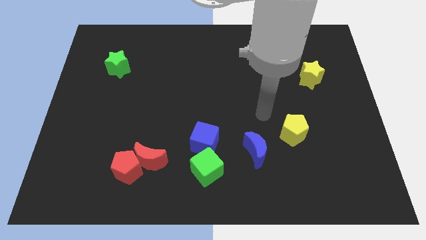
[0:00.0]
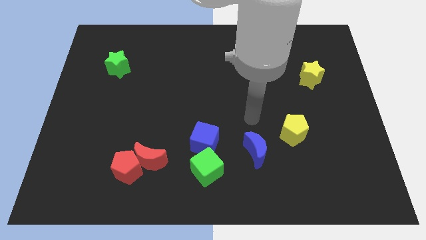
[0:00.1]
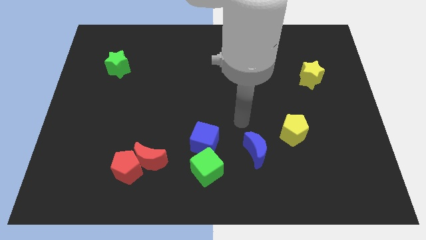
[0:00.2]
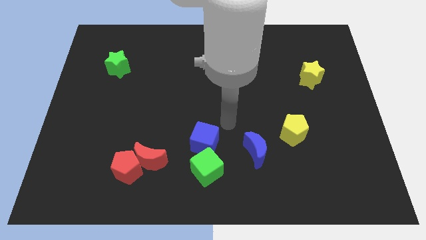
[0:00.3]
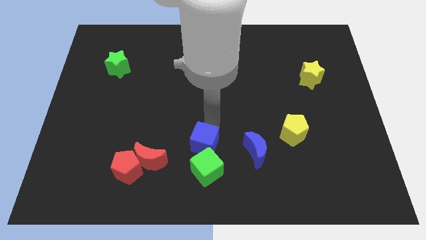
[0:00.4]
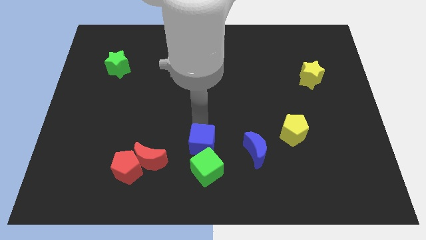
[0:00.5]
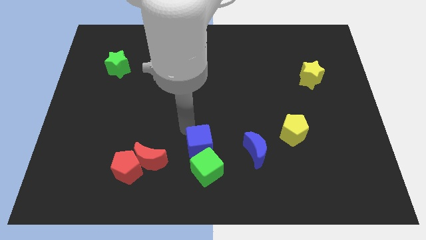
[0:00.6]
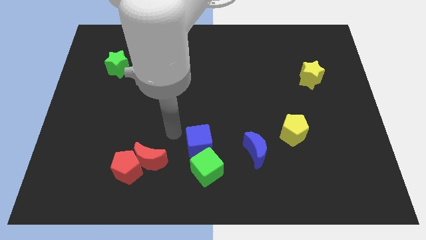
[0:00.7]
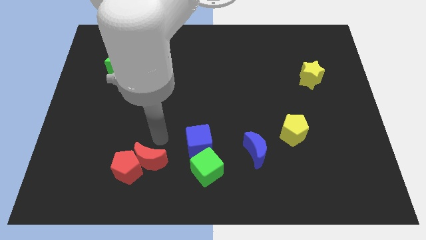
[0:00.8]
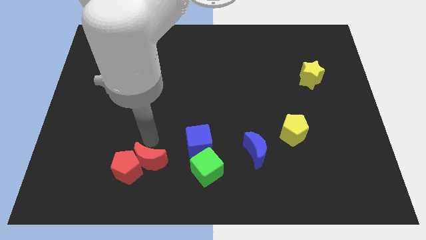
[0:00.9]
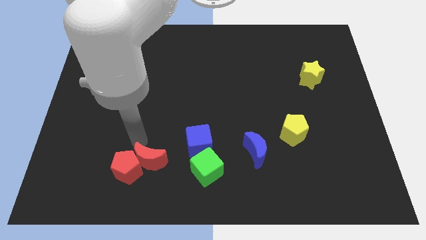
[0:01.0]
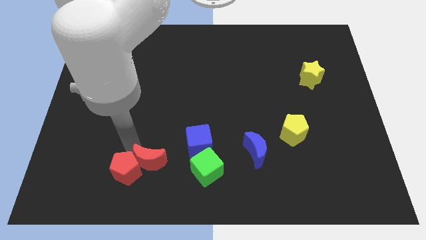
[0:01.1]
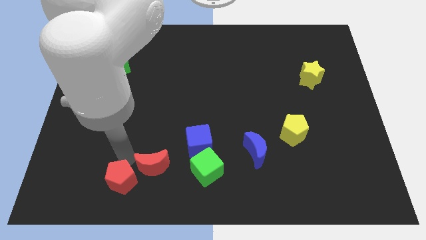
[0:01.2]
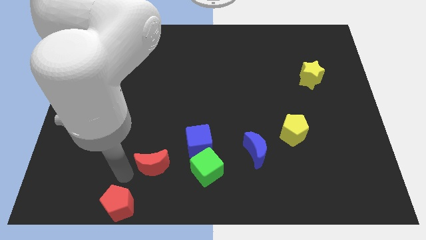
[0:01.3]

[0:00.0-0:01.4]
separate the red moon from the red pentagon

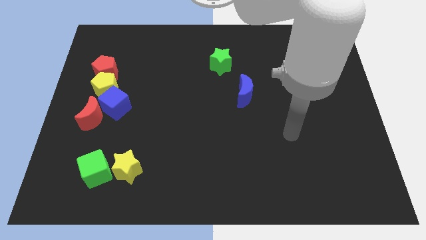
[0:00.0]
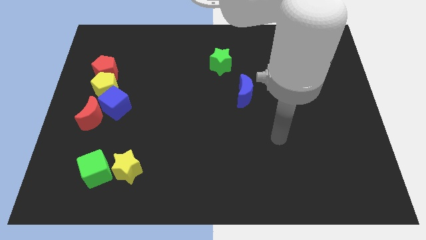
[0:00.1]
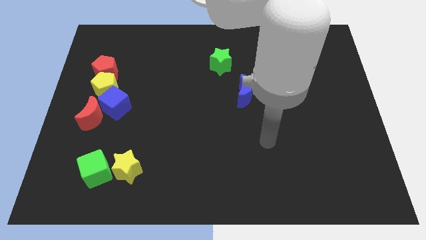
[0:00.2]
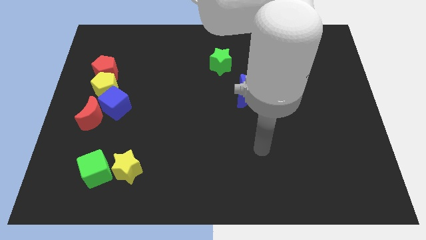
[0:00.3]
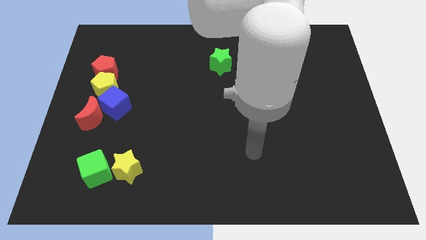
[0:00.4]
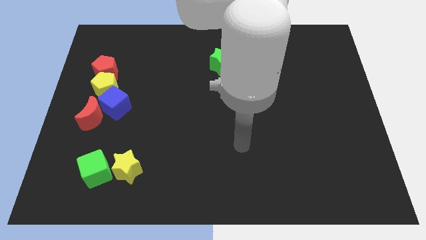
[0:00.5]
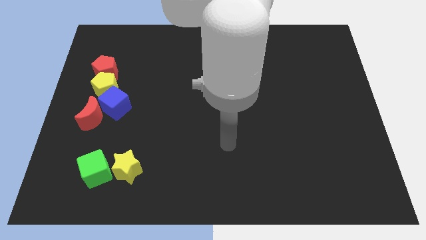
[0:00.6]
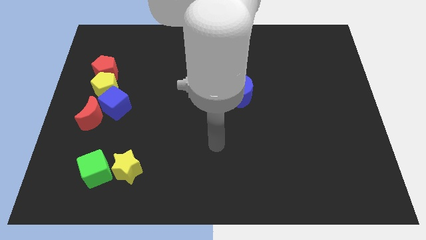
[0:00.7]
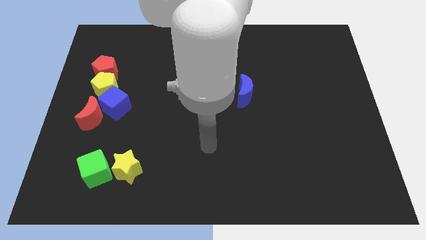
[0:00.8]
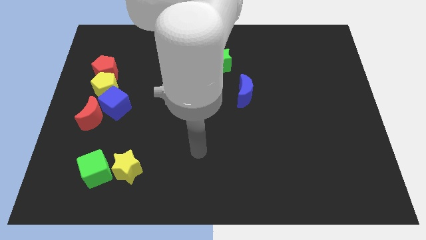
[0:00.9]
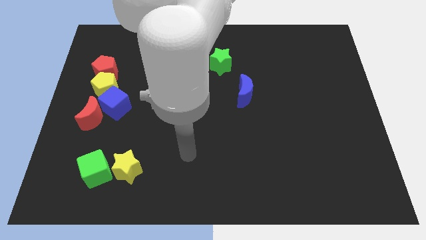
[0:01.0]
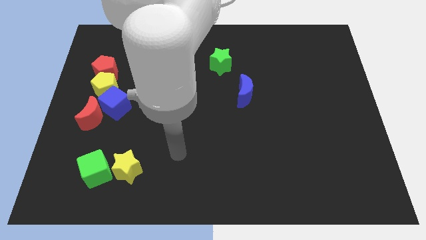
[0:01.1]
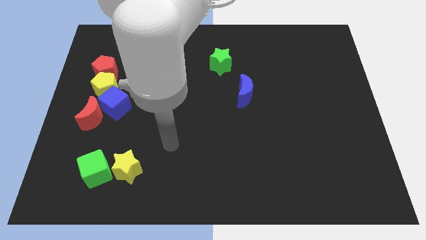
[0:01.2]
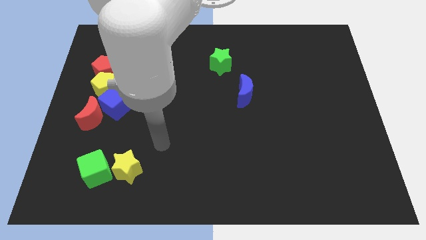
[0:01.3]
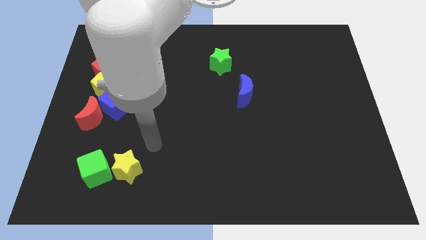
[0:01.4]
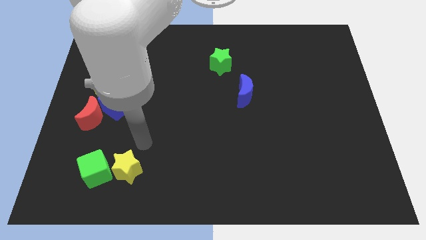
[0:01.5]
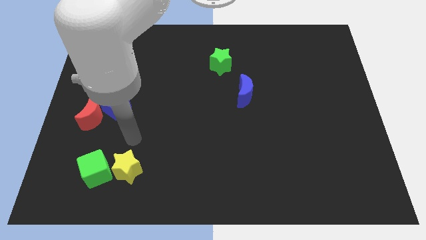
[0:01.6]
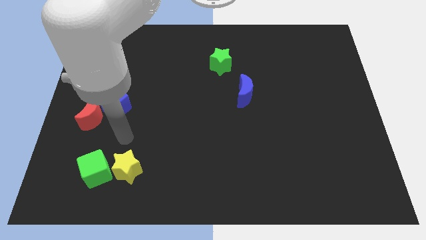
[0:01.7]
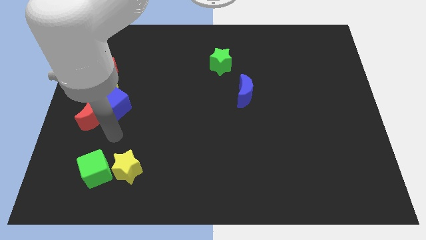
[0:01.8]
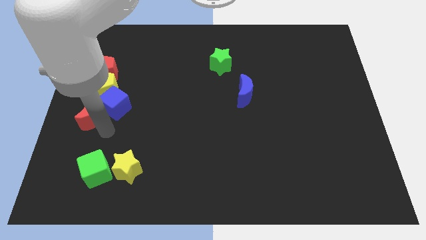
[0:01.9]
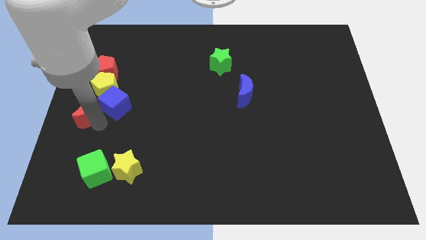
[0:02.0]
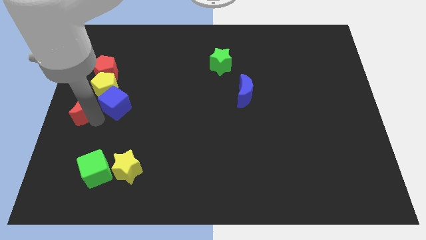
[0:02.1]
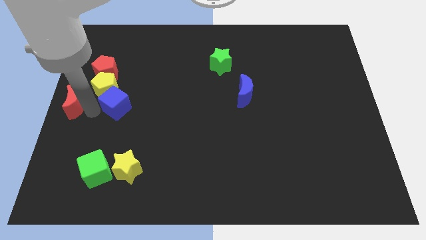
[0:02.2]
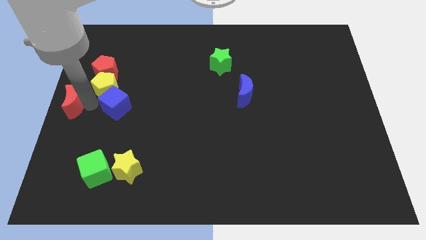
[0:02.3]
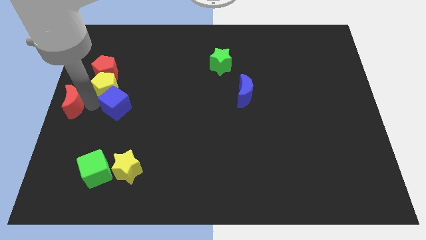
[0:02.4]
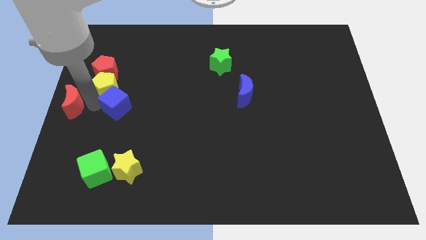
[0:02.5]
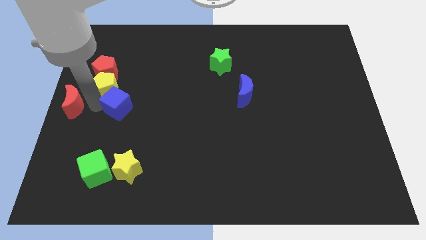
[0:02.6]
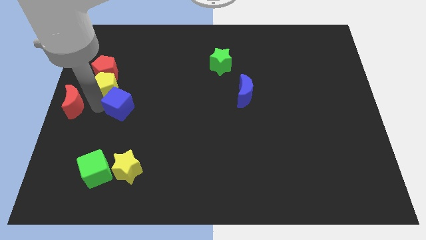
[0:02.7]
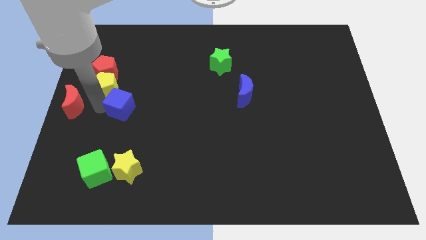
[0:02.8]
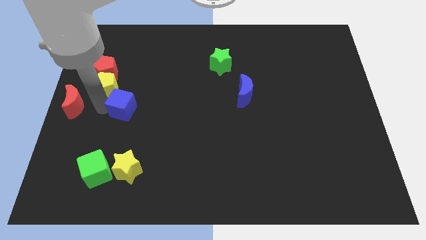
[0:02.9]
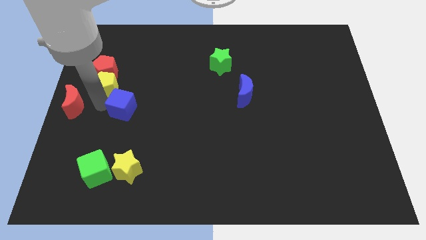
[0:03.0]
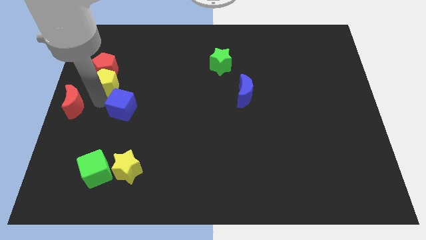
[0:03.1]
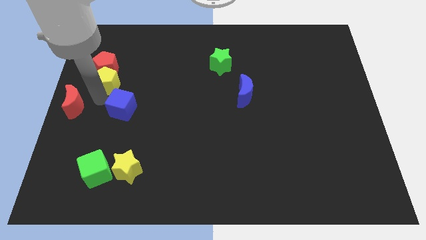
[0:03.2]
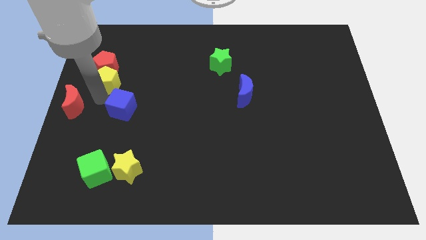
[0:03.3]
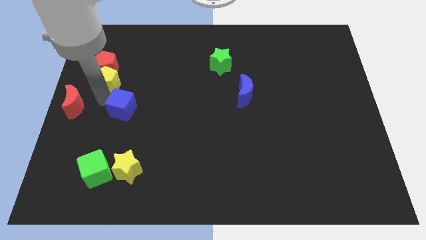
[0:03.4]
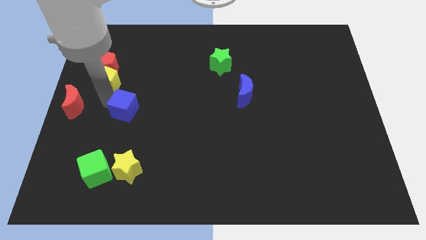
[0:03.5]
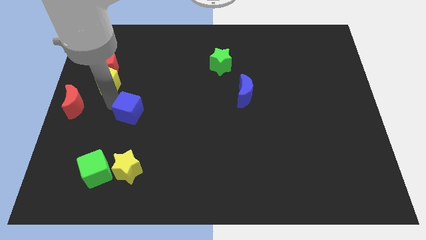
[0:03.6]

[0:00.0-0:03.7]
move the blue cube away from the red moon and yellow pentagon

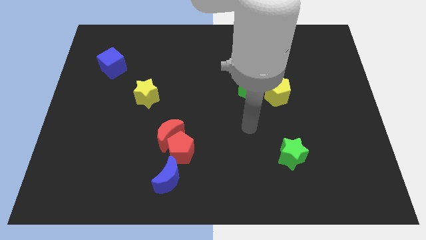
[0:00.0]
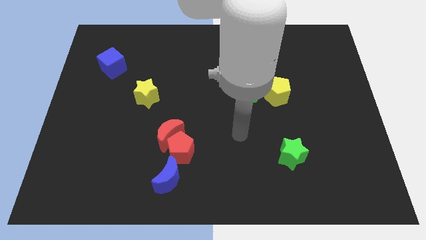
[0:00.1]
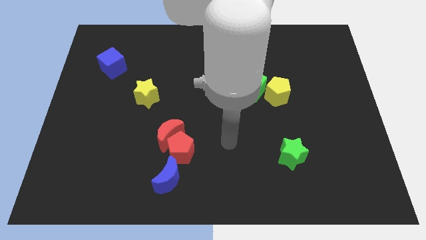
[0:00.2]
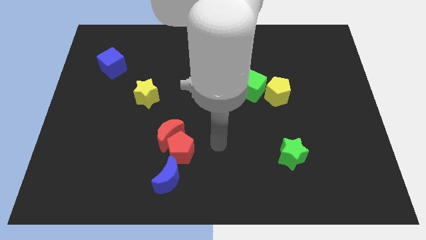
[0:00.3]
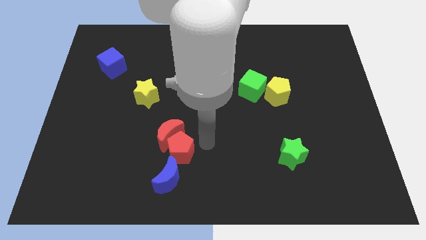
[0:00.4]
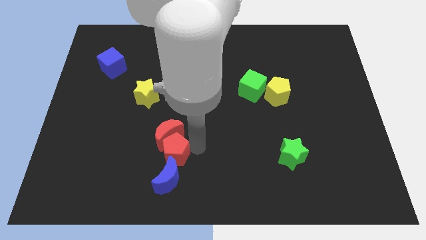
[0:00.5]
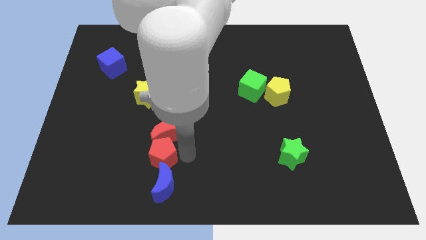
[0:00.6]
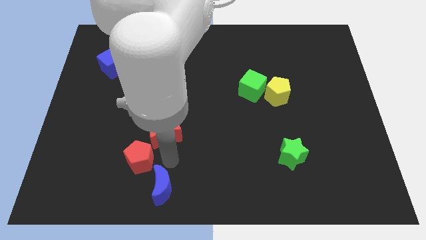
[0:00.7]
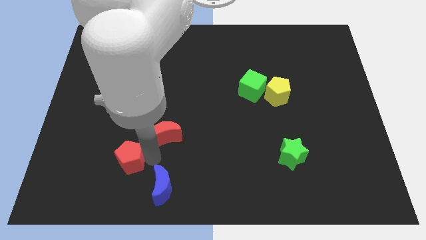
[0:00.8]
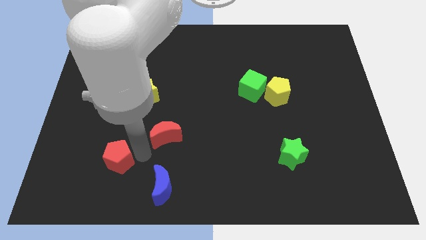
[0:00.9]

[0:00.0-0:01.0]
move the red moon away from the red pentagon

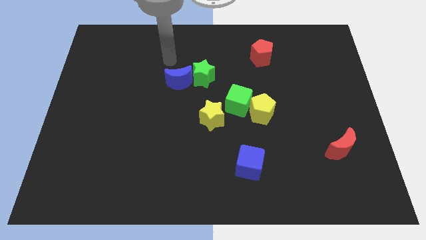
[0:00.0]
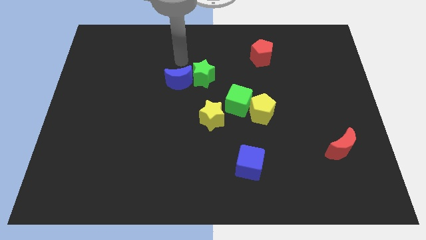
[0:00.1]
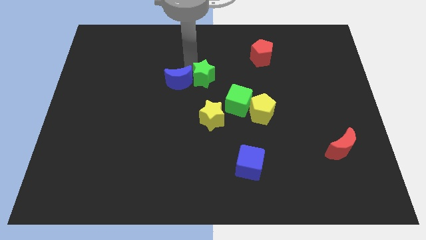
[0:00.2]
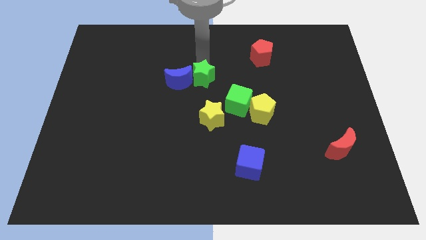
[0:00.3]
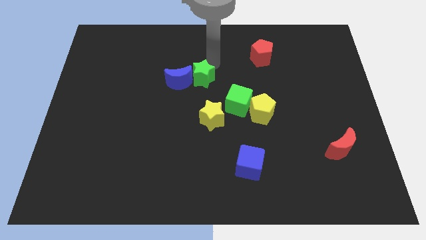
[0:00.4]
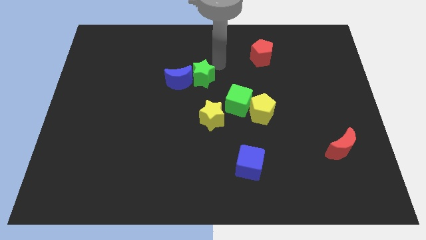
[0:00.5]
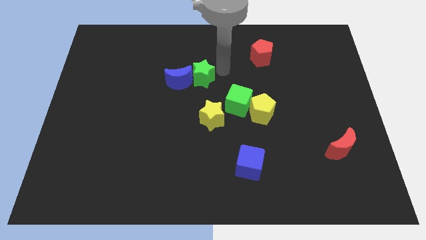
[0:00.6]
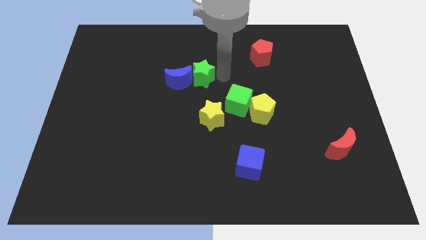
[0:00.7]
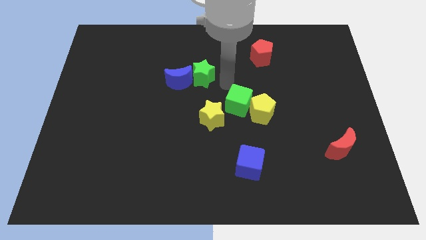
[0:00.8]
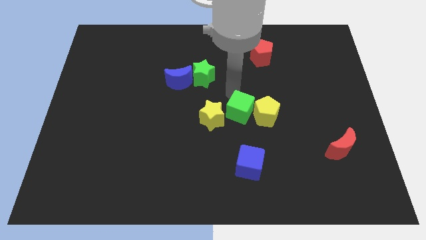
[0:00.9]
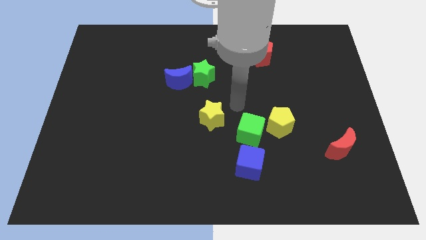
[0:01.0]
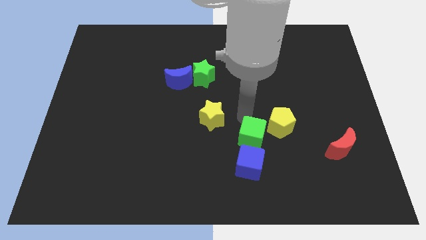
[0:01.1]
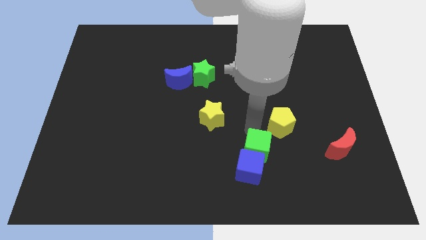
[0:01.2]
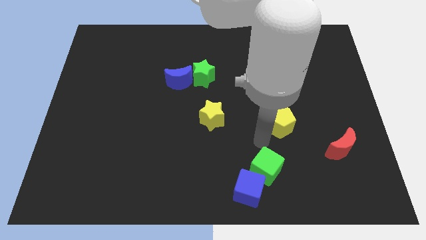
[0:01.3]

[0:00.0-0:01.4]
move the yellow pentagon away from the green cube

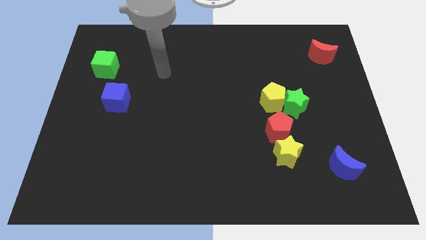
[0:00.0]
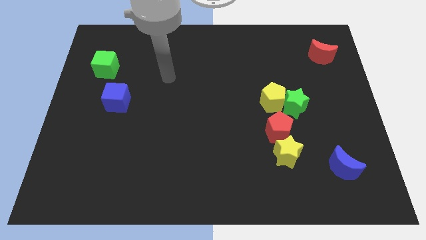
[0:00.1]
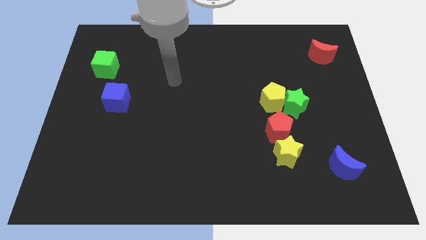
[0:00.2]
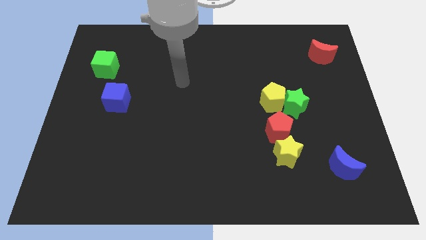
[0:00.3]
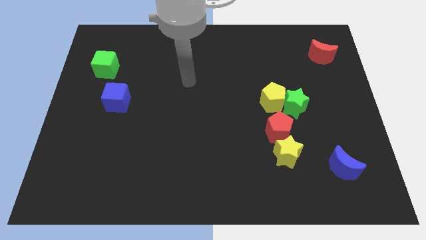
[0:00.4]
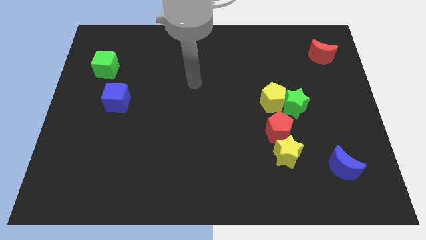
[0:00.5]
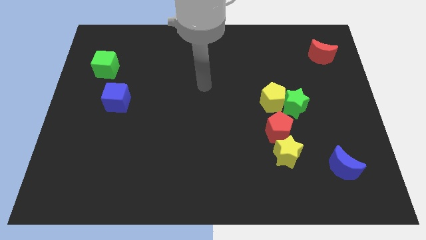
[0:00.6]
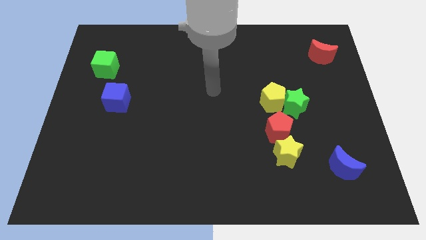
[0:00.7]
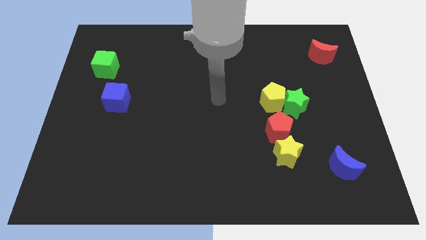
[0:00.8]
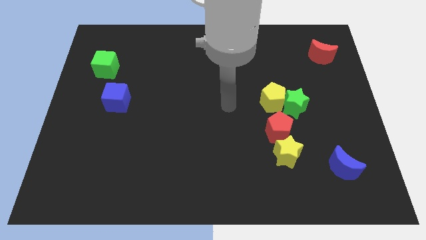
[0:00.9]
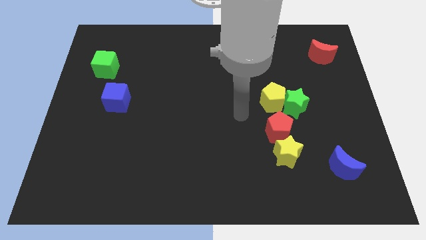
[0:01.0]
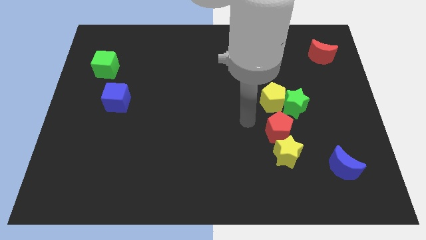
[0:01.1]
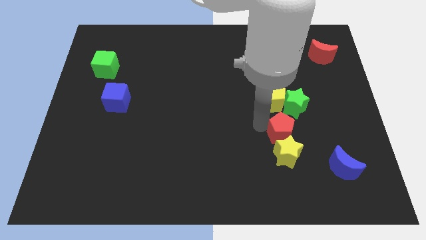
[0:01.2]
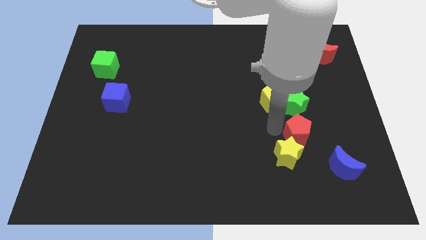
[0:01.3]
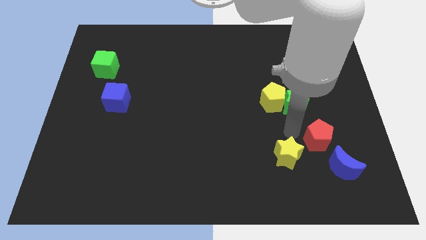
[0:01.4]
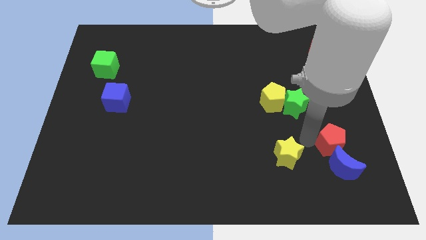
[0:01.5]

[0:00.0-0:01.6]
move the yellow star away from the red pentagon

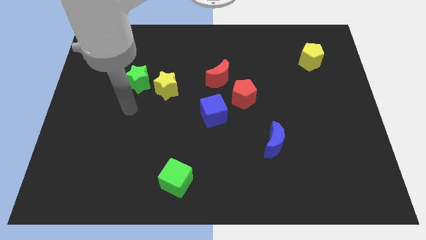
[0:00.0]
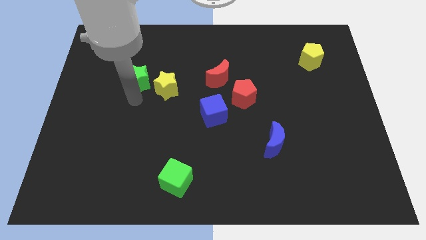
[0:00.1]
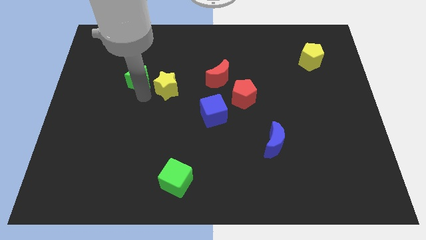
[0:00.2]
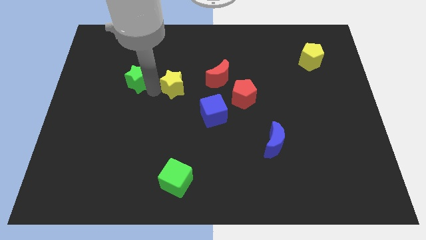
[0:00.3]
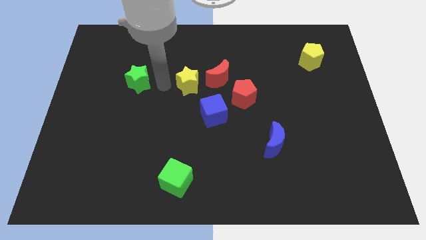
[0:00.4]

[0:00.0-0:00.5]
pull the green star apart from the yellow star
